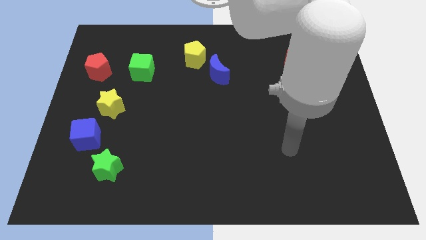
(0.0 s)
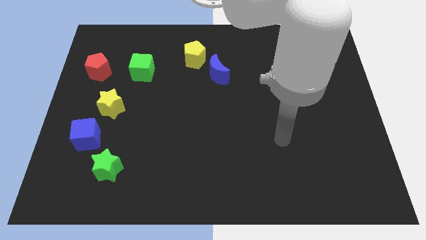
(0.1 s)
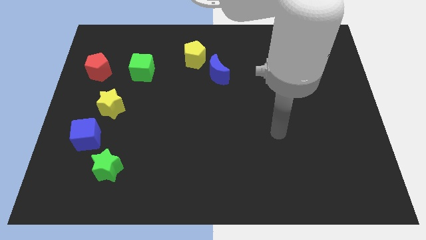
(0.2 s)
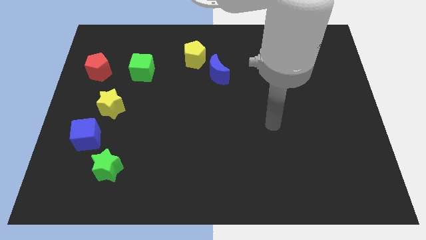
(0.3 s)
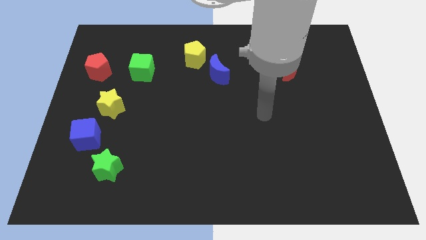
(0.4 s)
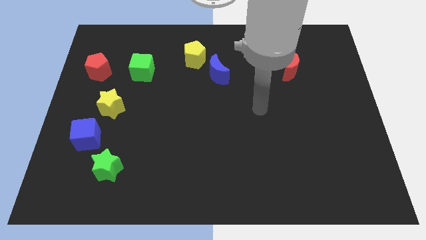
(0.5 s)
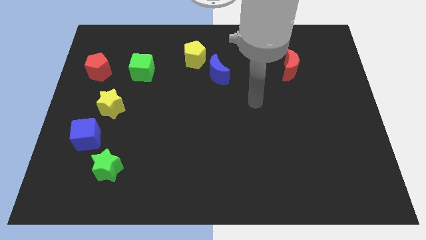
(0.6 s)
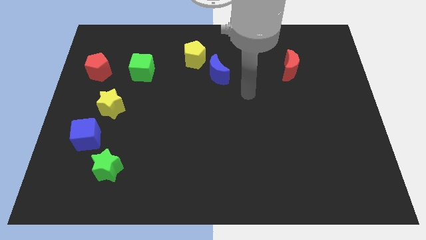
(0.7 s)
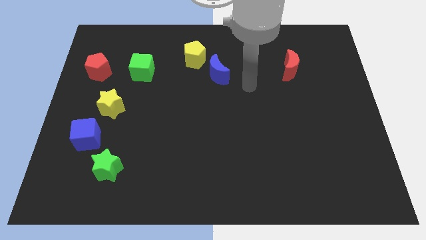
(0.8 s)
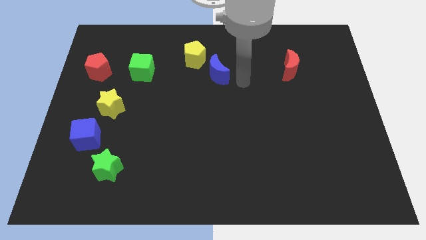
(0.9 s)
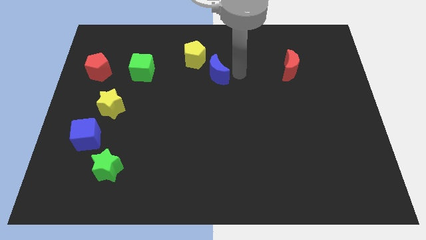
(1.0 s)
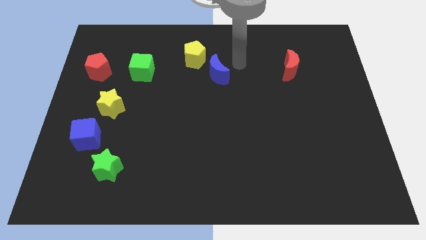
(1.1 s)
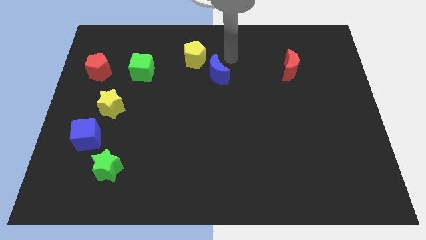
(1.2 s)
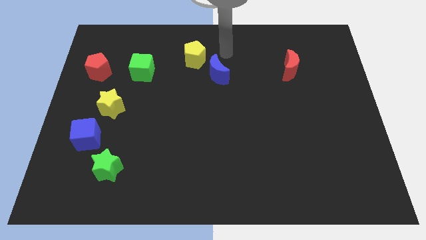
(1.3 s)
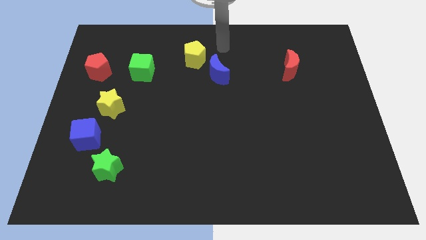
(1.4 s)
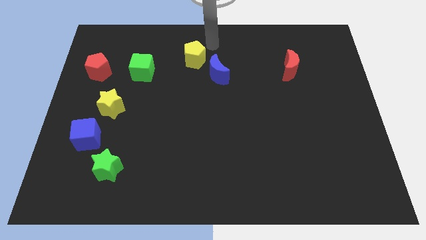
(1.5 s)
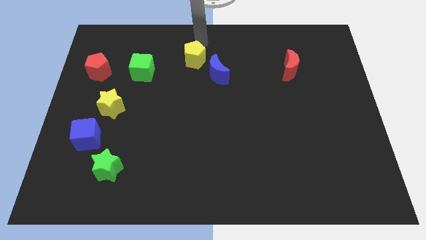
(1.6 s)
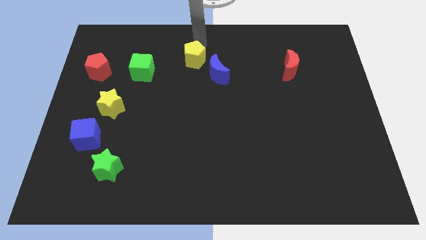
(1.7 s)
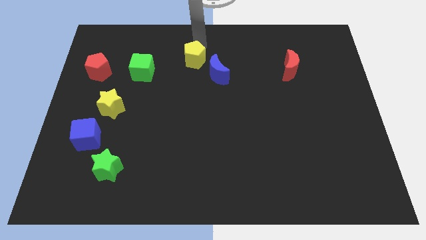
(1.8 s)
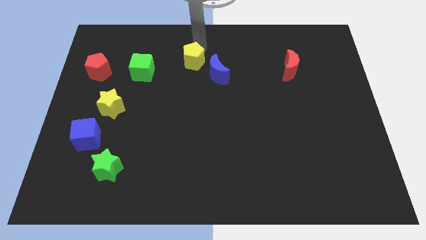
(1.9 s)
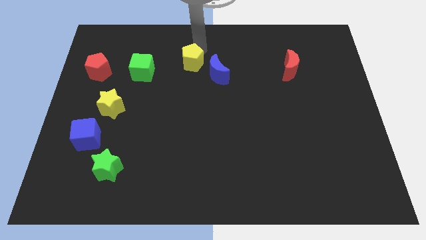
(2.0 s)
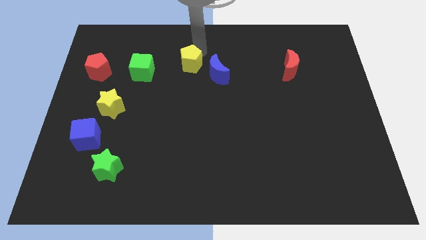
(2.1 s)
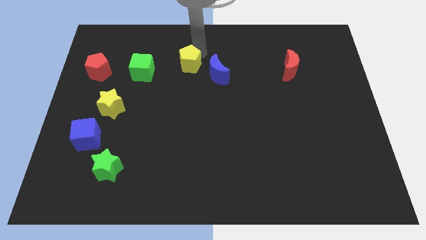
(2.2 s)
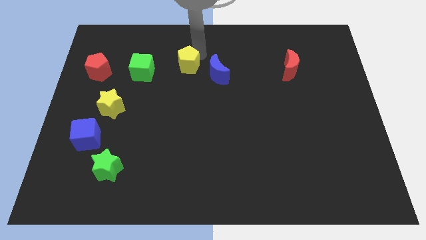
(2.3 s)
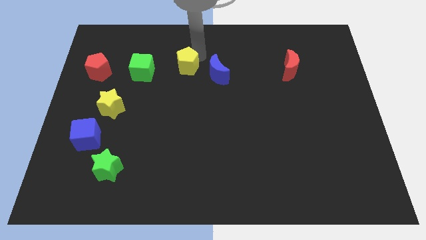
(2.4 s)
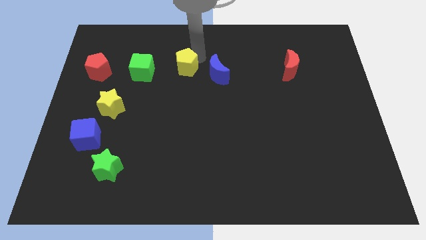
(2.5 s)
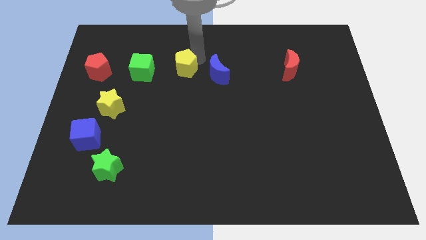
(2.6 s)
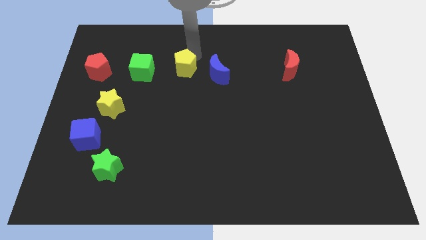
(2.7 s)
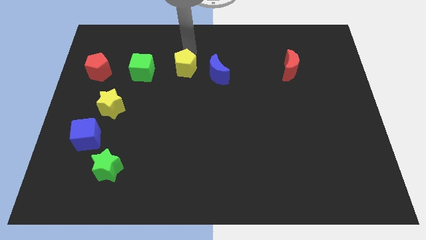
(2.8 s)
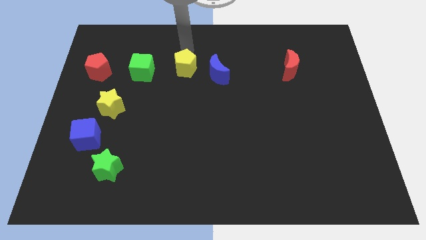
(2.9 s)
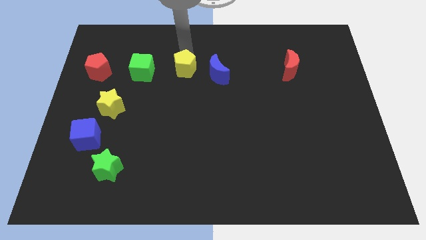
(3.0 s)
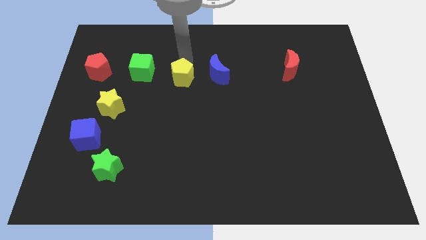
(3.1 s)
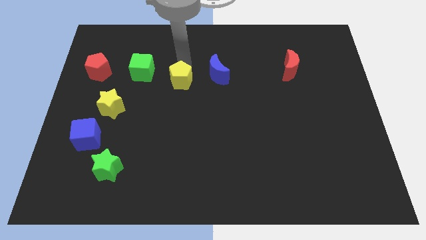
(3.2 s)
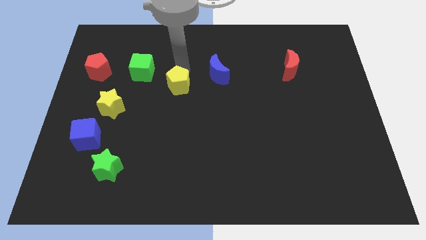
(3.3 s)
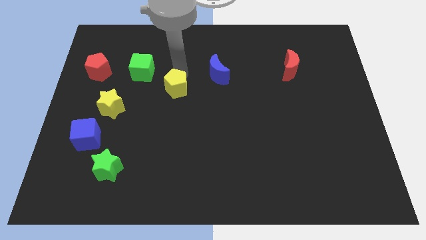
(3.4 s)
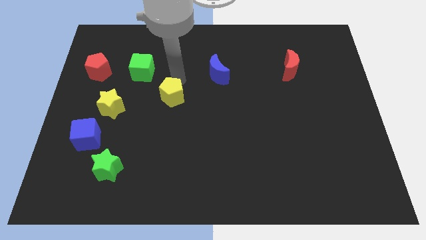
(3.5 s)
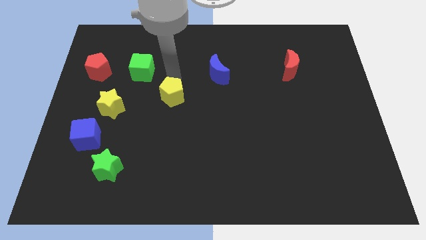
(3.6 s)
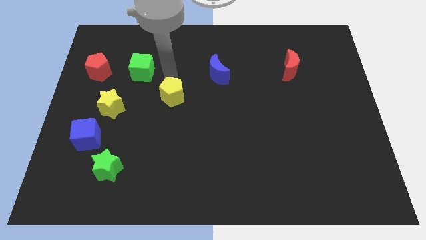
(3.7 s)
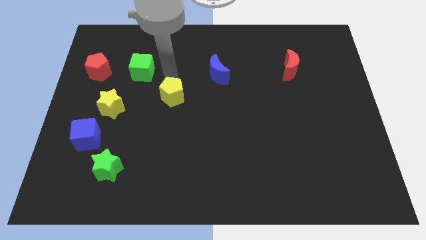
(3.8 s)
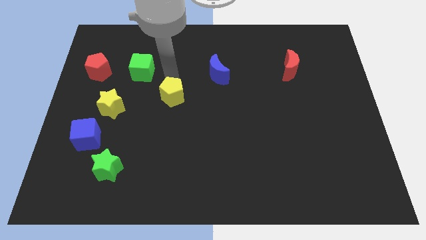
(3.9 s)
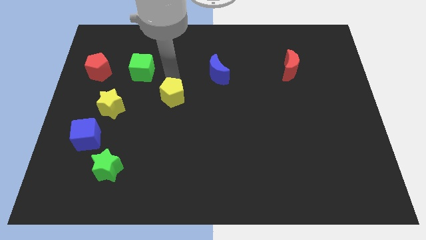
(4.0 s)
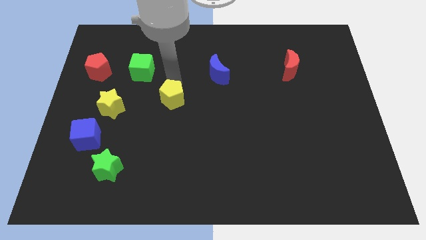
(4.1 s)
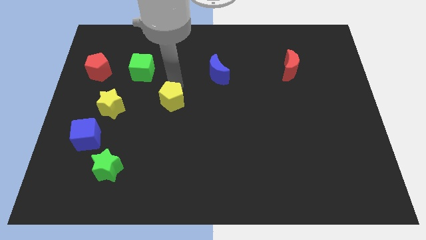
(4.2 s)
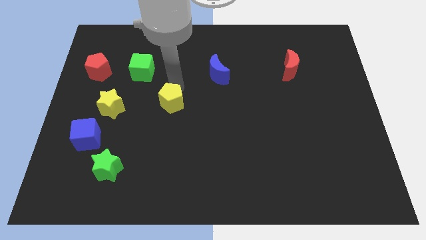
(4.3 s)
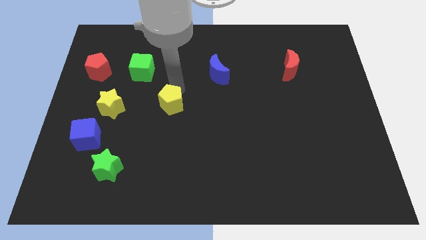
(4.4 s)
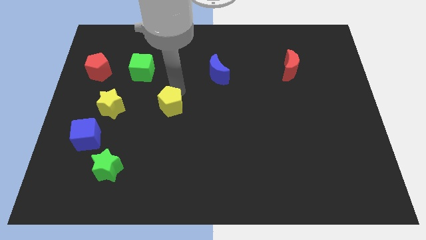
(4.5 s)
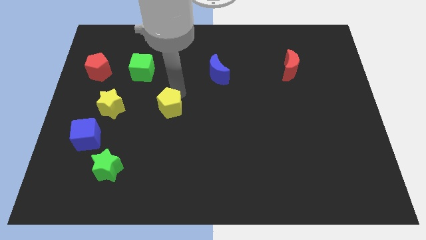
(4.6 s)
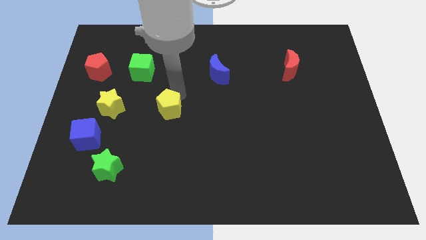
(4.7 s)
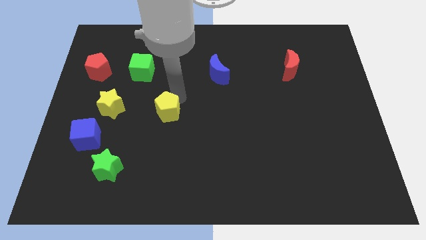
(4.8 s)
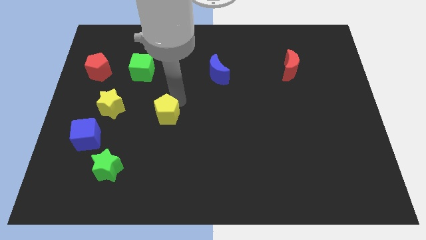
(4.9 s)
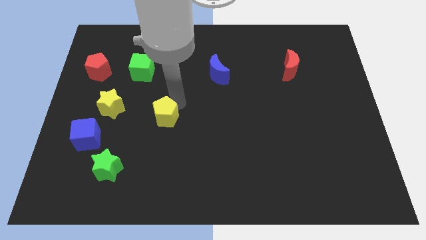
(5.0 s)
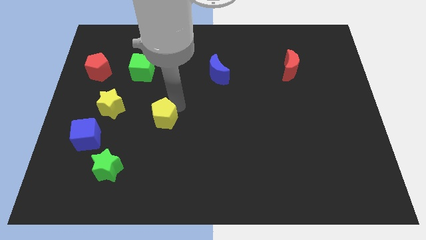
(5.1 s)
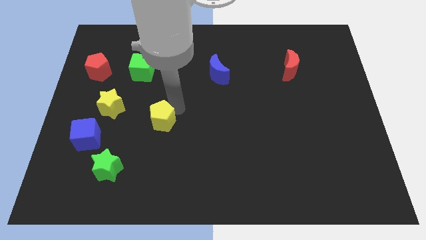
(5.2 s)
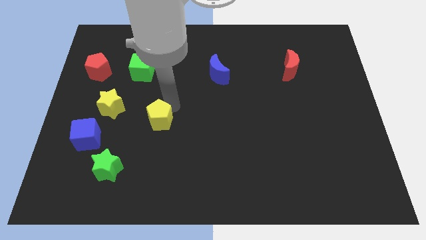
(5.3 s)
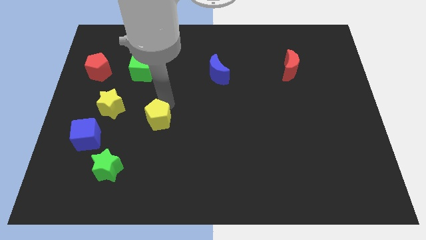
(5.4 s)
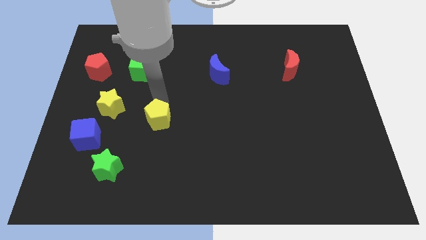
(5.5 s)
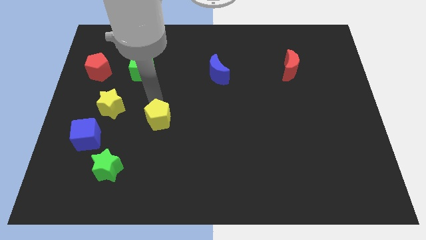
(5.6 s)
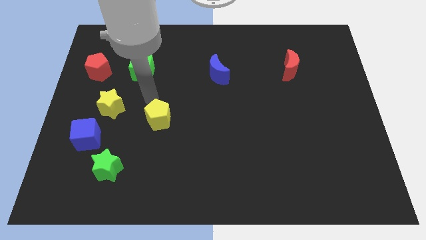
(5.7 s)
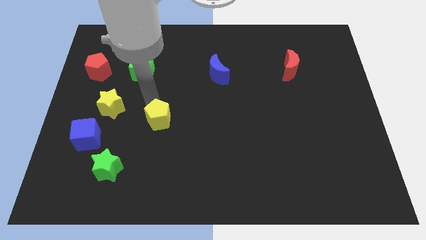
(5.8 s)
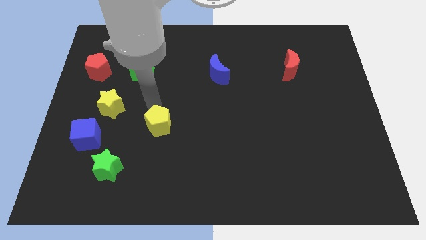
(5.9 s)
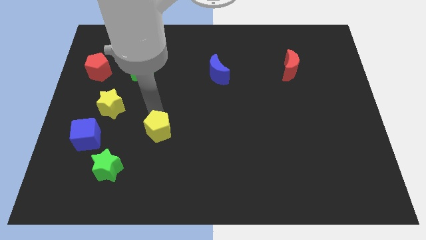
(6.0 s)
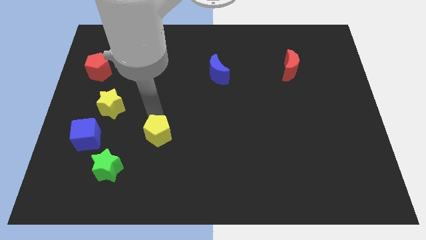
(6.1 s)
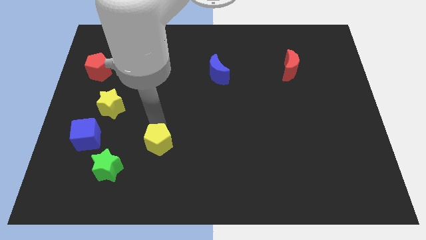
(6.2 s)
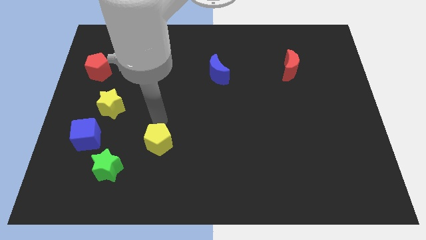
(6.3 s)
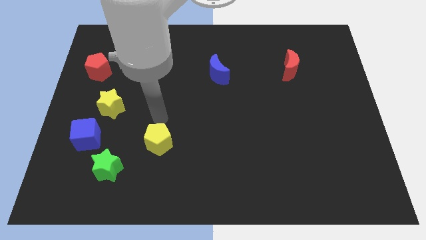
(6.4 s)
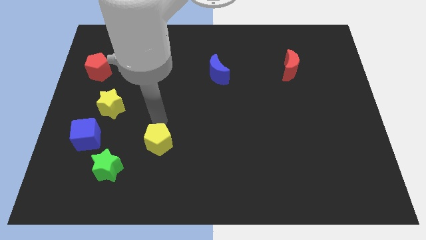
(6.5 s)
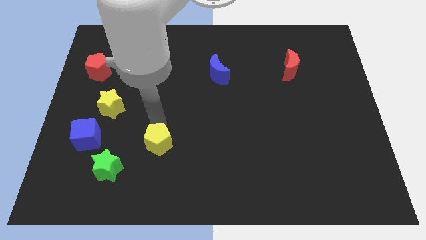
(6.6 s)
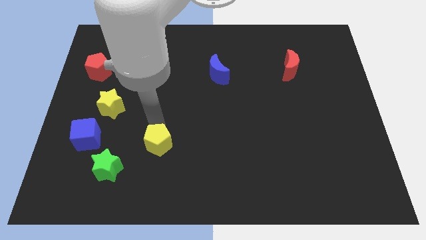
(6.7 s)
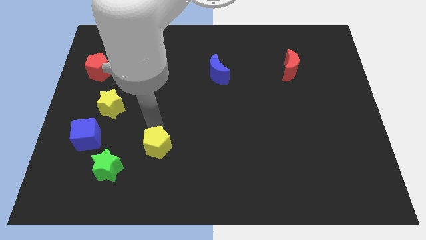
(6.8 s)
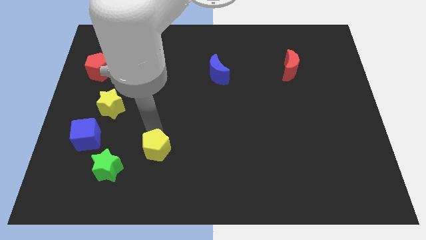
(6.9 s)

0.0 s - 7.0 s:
slide the yellow pentagon to the right side of the green star

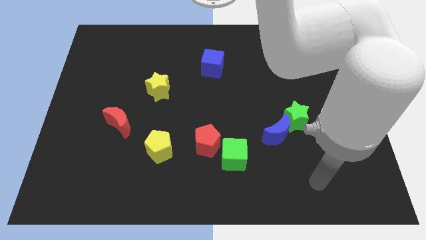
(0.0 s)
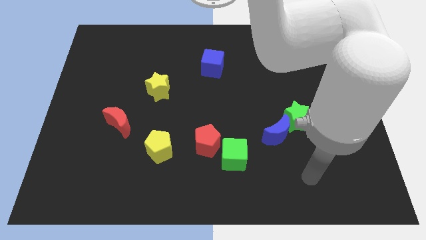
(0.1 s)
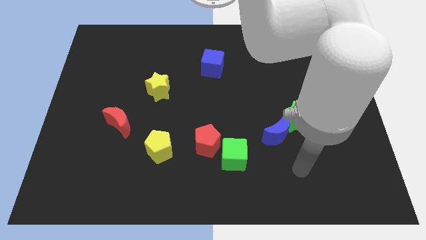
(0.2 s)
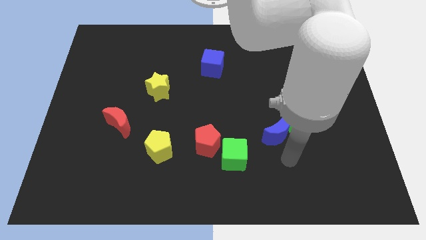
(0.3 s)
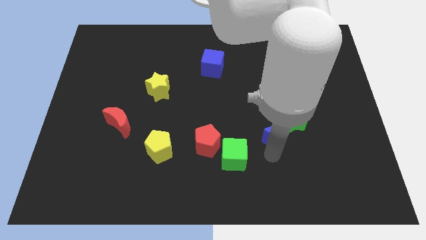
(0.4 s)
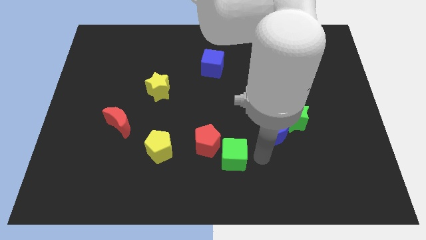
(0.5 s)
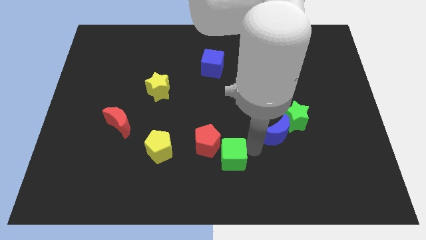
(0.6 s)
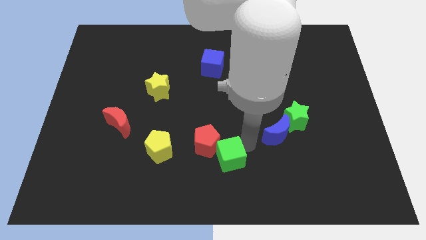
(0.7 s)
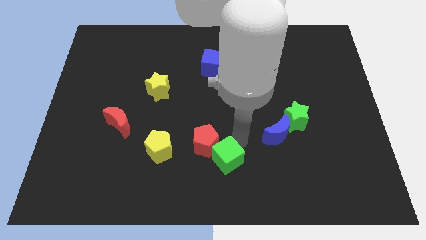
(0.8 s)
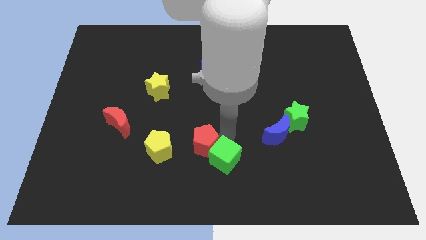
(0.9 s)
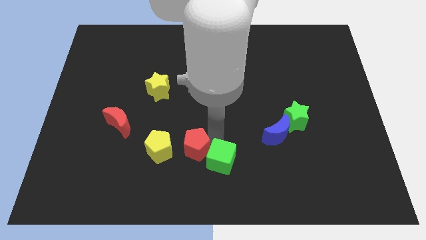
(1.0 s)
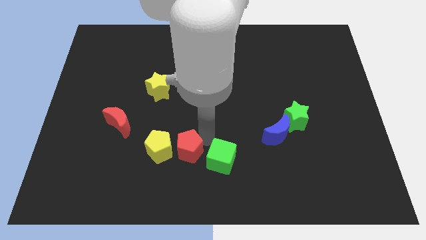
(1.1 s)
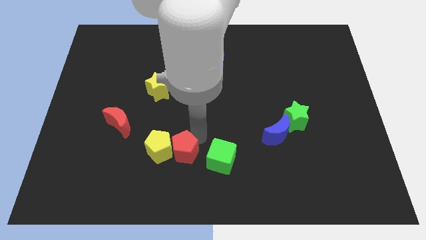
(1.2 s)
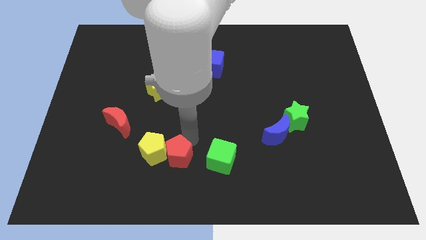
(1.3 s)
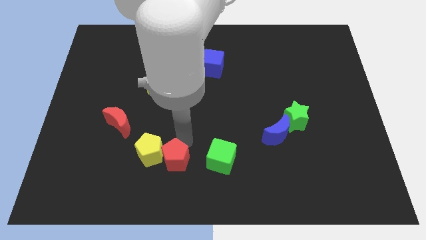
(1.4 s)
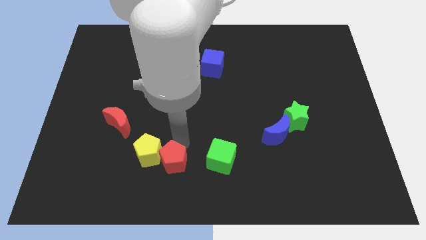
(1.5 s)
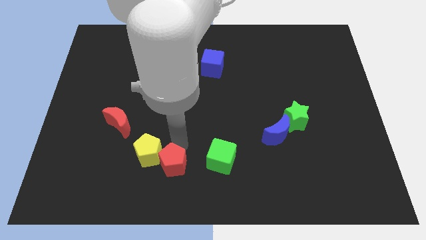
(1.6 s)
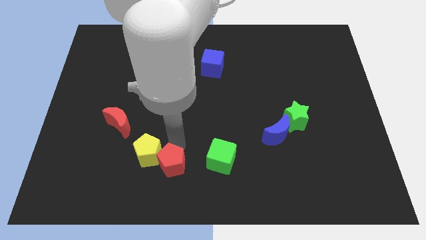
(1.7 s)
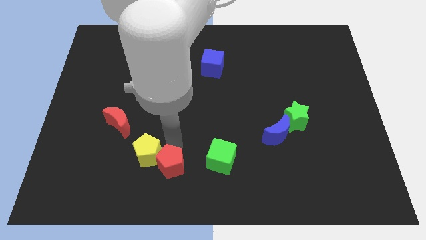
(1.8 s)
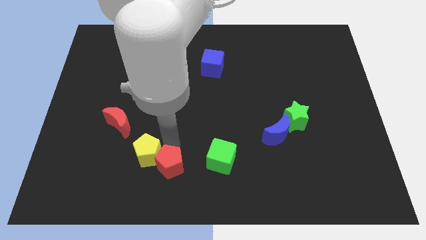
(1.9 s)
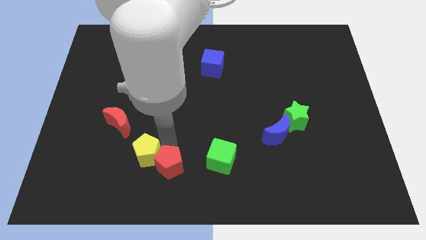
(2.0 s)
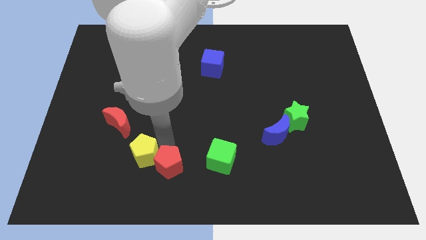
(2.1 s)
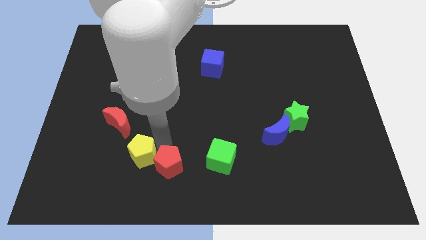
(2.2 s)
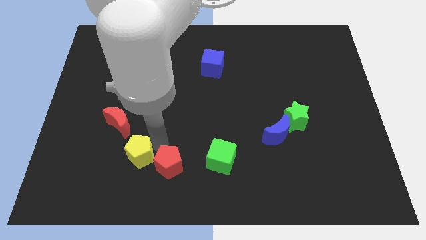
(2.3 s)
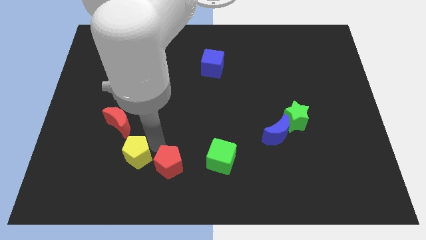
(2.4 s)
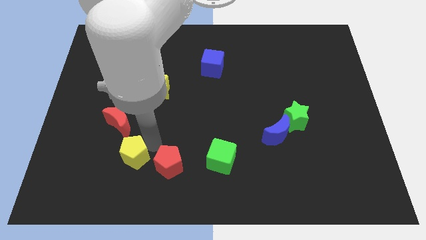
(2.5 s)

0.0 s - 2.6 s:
push the yellow pentagon to the bottom of the red moon
